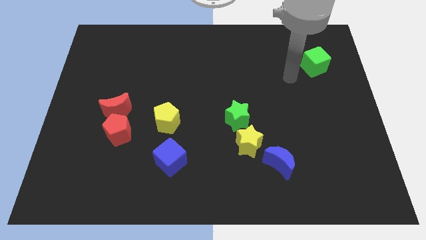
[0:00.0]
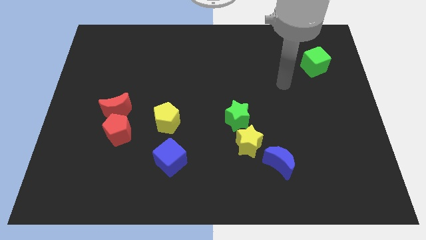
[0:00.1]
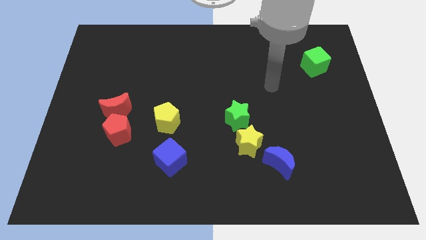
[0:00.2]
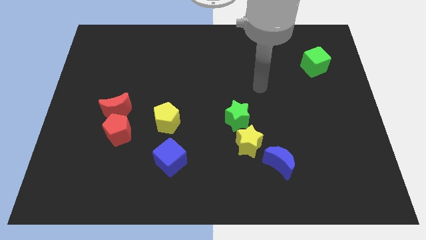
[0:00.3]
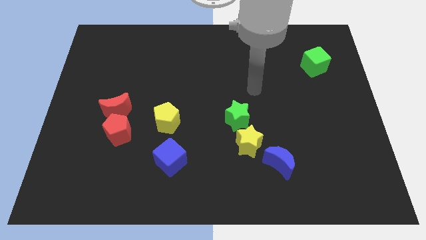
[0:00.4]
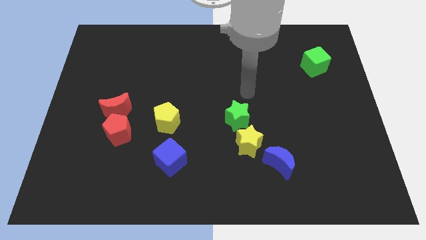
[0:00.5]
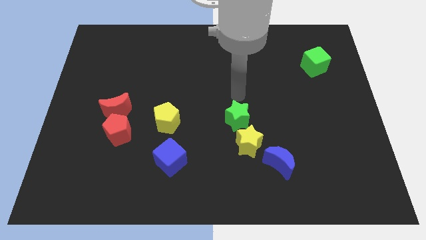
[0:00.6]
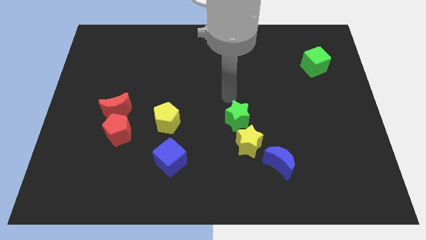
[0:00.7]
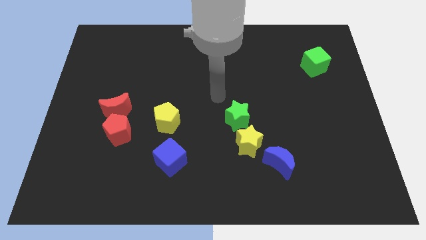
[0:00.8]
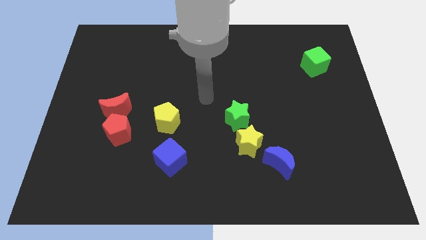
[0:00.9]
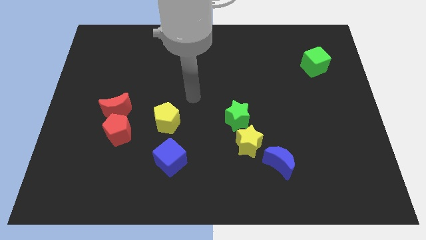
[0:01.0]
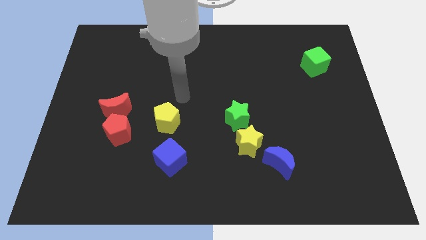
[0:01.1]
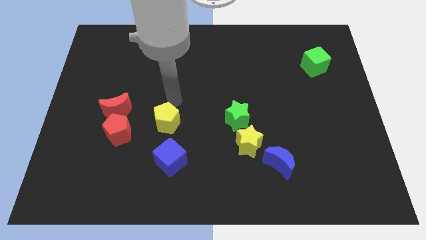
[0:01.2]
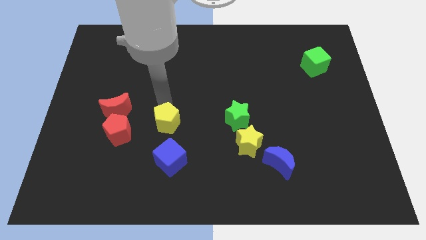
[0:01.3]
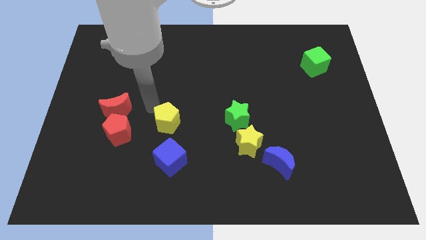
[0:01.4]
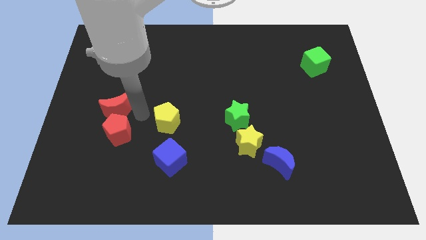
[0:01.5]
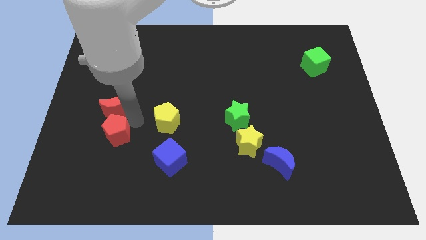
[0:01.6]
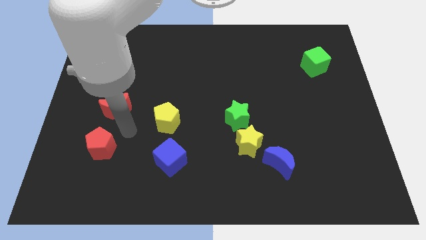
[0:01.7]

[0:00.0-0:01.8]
pull the red moon apart from the red pentagon

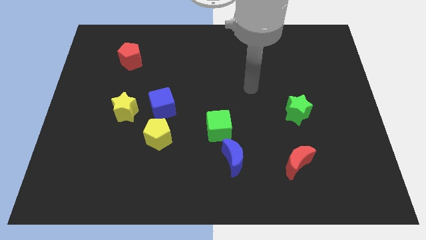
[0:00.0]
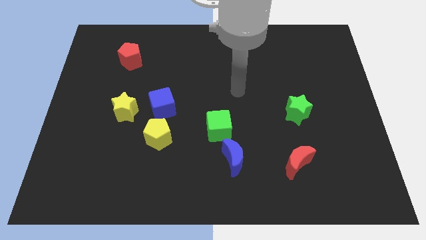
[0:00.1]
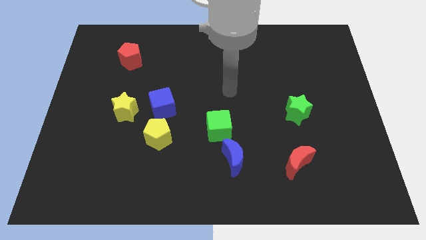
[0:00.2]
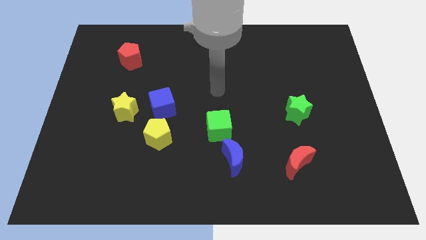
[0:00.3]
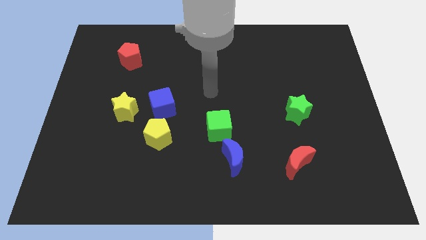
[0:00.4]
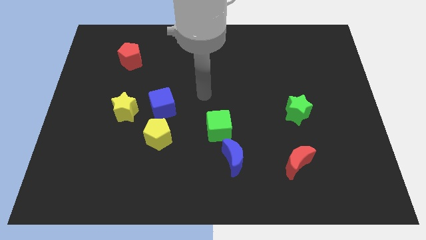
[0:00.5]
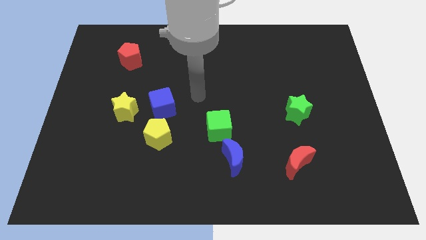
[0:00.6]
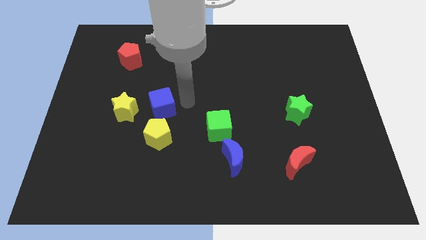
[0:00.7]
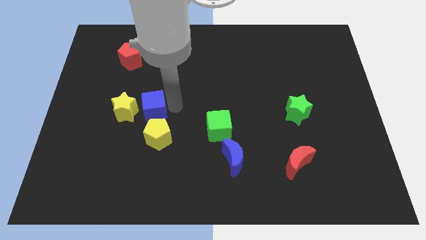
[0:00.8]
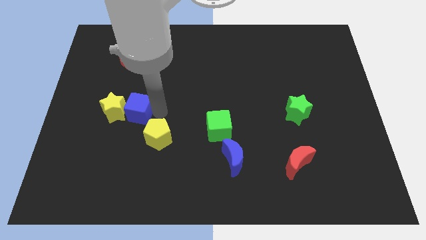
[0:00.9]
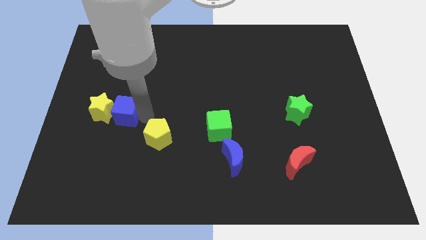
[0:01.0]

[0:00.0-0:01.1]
pull the yellow pentagon apart from the blue cube

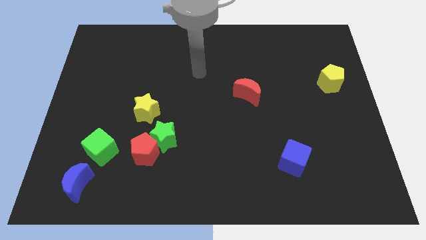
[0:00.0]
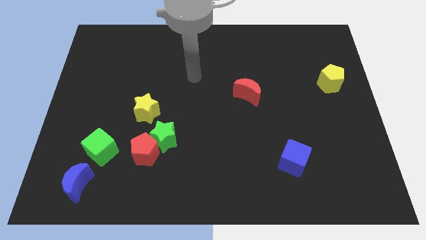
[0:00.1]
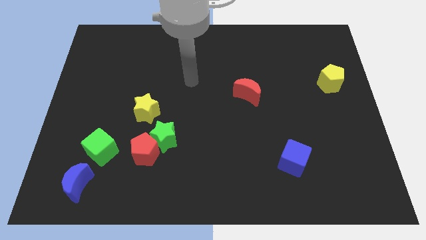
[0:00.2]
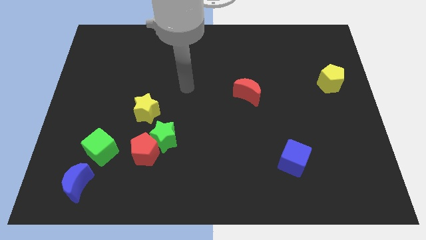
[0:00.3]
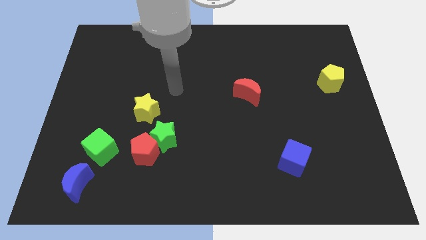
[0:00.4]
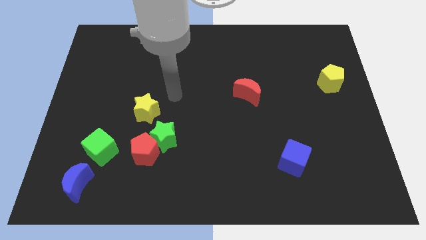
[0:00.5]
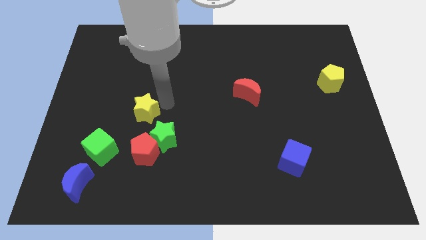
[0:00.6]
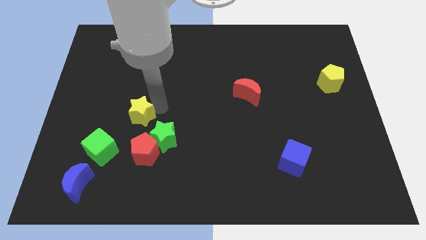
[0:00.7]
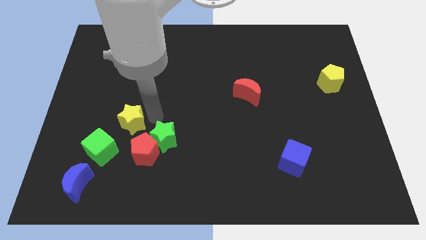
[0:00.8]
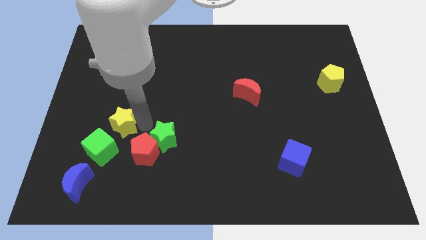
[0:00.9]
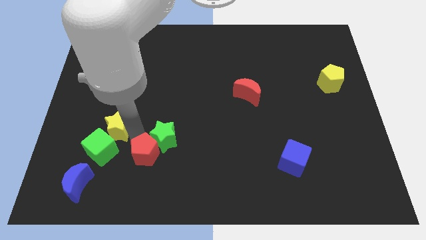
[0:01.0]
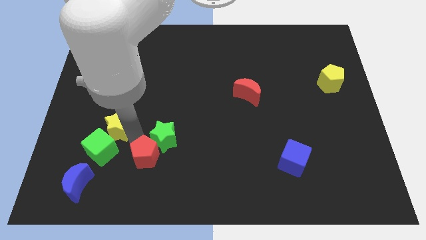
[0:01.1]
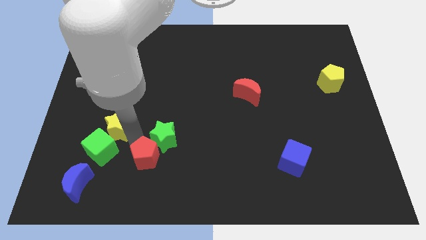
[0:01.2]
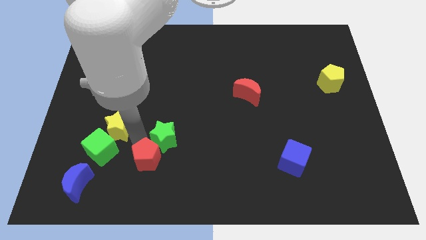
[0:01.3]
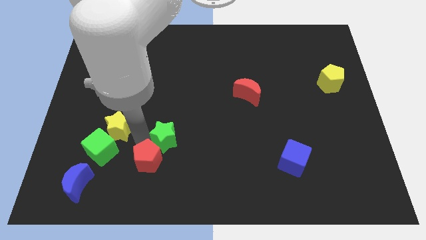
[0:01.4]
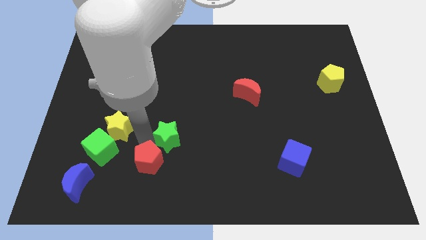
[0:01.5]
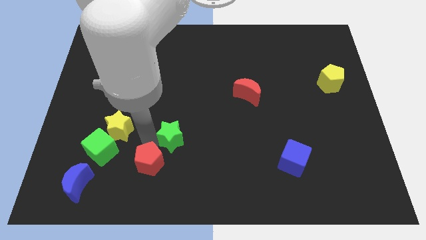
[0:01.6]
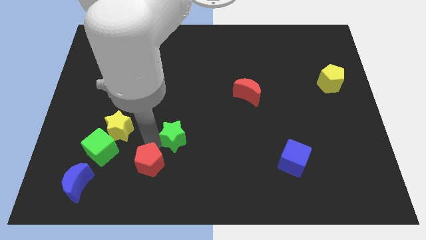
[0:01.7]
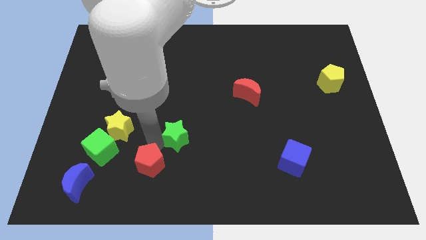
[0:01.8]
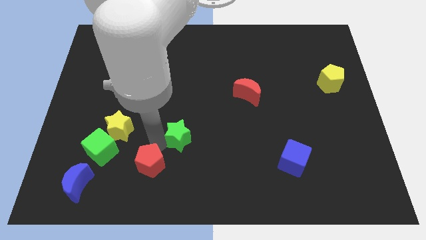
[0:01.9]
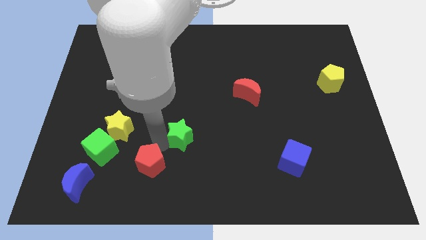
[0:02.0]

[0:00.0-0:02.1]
move the green star away from the red pentagon and yellow star

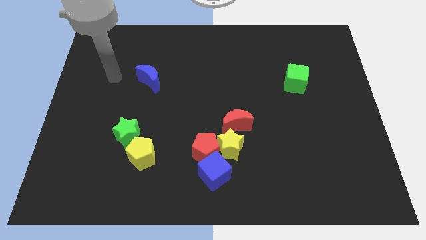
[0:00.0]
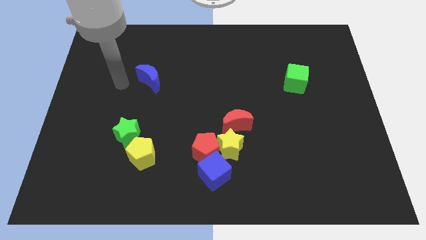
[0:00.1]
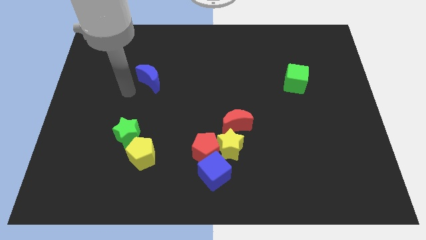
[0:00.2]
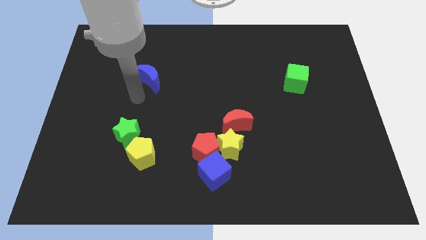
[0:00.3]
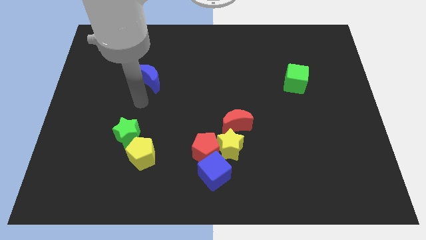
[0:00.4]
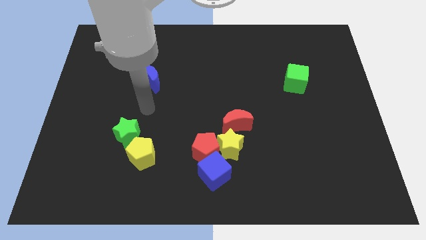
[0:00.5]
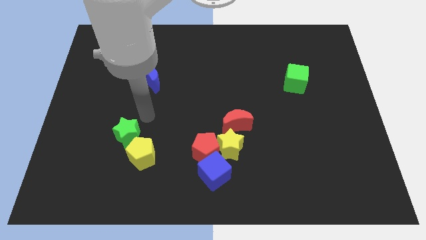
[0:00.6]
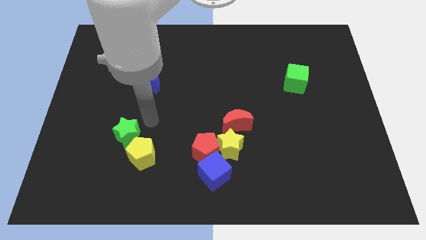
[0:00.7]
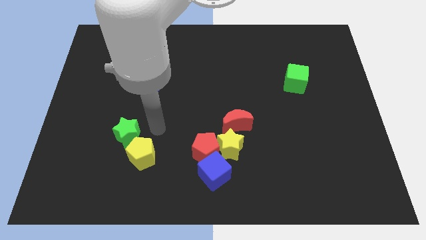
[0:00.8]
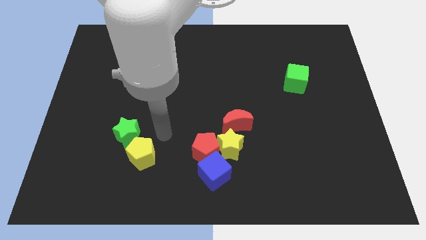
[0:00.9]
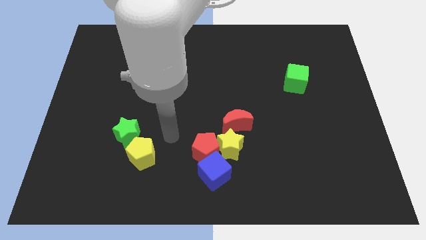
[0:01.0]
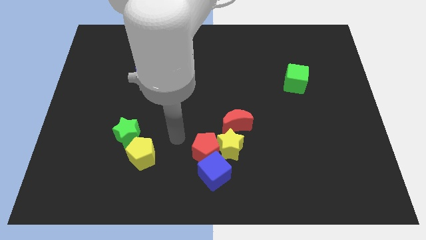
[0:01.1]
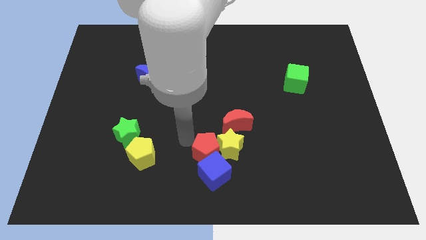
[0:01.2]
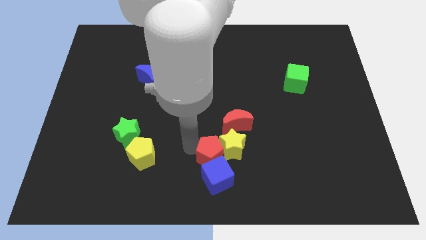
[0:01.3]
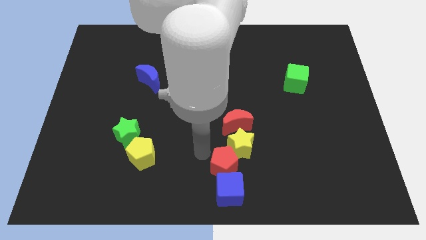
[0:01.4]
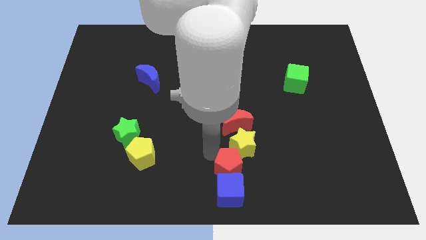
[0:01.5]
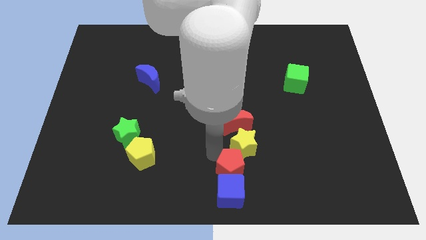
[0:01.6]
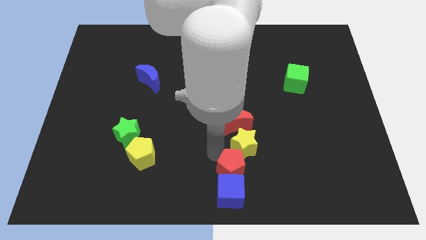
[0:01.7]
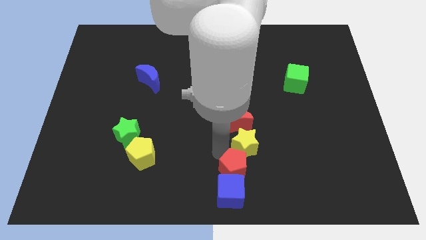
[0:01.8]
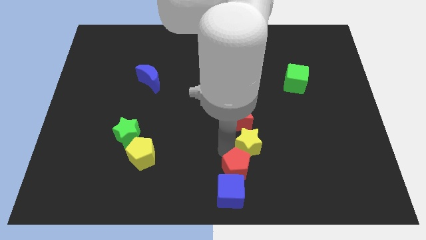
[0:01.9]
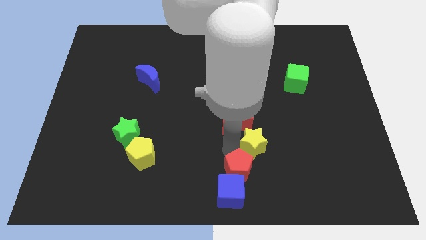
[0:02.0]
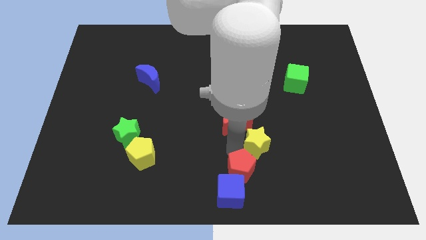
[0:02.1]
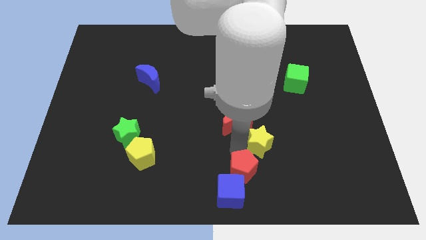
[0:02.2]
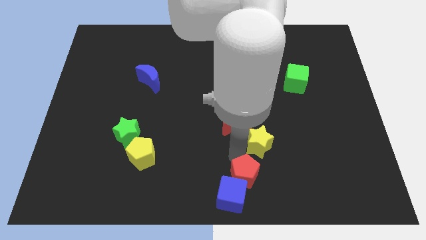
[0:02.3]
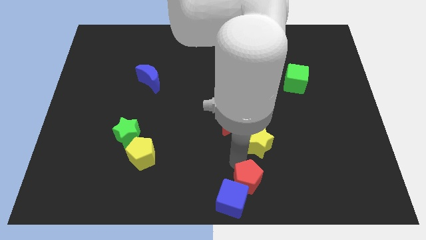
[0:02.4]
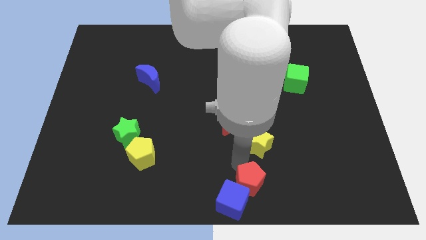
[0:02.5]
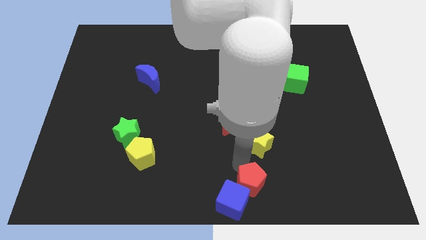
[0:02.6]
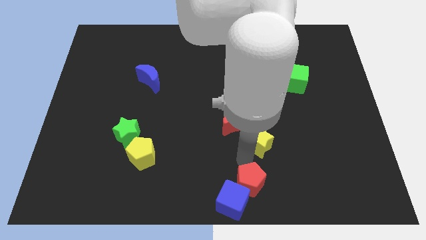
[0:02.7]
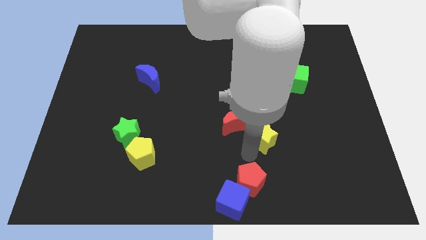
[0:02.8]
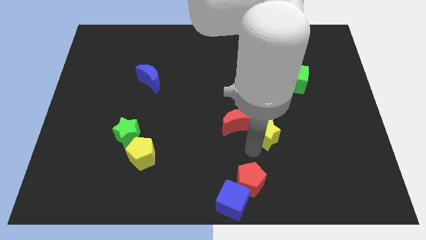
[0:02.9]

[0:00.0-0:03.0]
pull the yellow star apart from the red pentagon, red moon, and blue cube

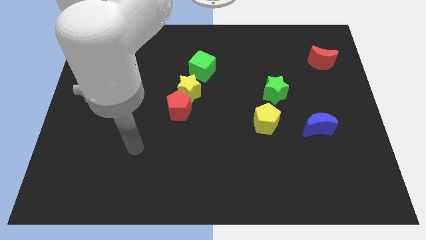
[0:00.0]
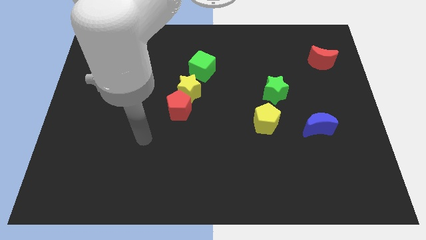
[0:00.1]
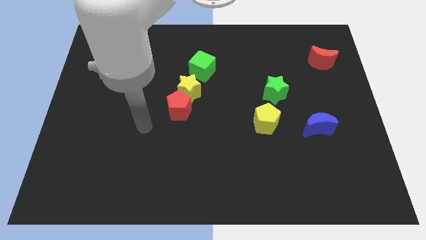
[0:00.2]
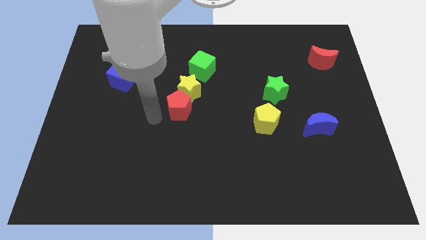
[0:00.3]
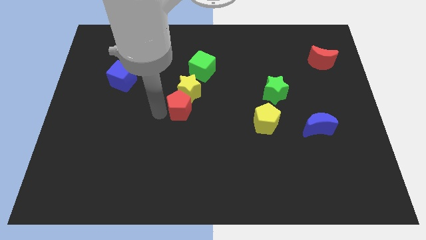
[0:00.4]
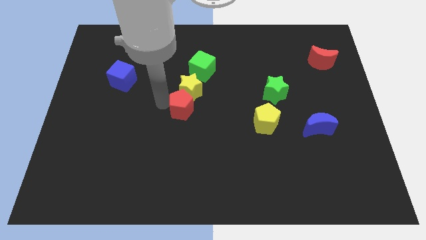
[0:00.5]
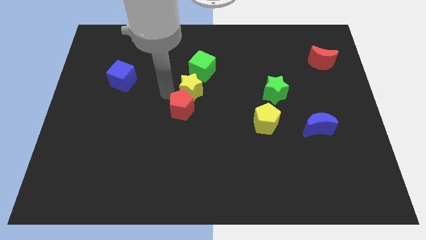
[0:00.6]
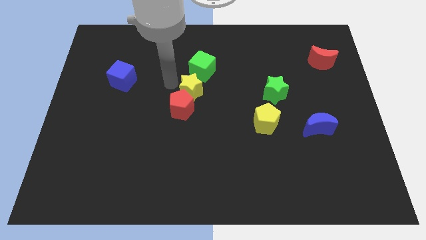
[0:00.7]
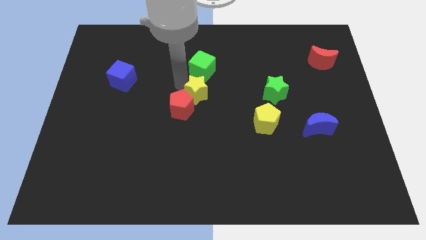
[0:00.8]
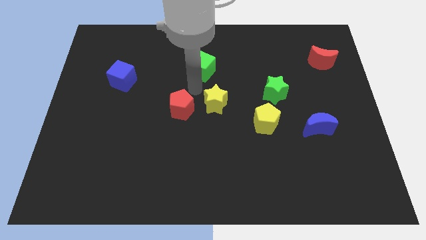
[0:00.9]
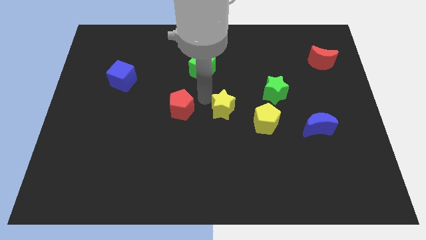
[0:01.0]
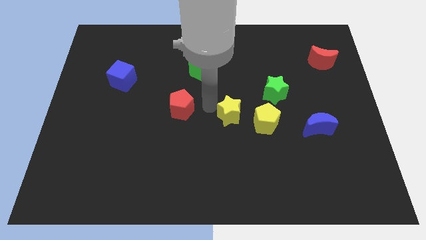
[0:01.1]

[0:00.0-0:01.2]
separate the red pentagon from the yellow star
